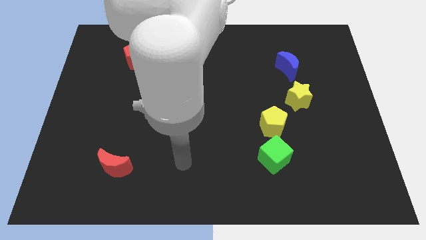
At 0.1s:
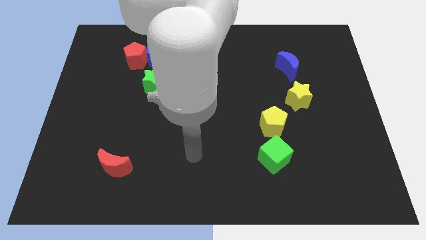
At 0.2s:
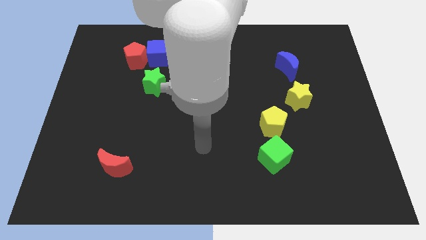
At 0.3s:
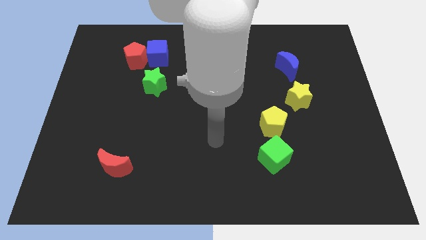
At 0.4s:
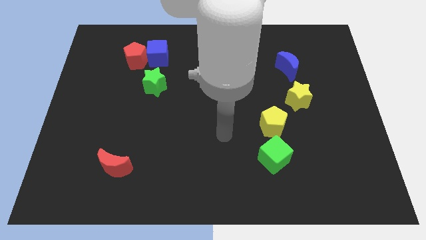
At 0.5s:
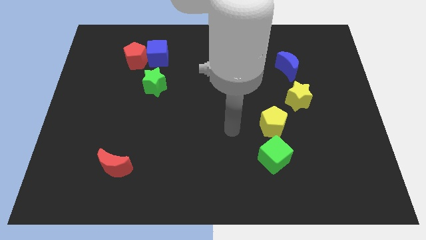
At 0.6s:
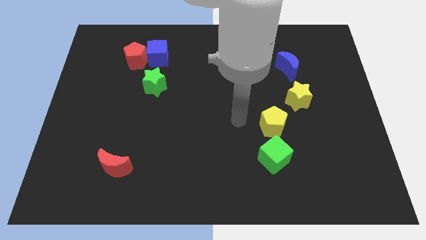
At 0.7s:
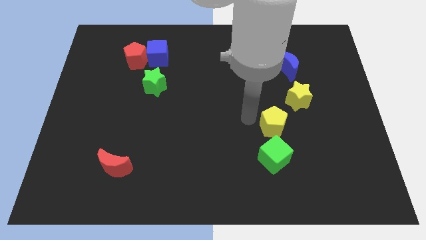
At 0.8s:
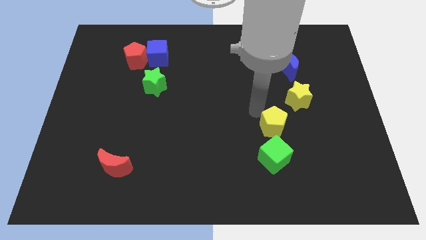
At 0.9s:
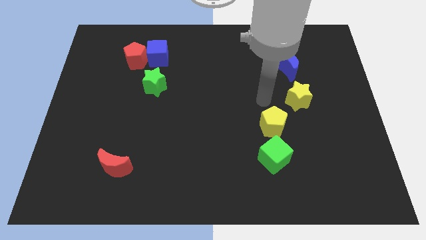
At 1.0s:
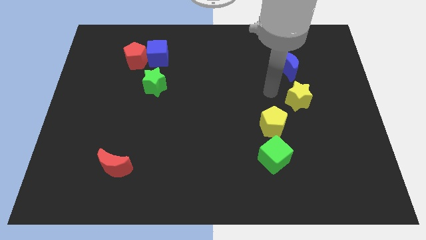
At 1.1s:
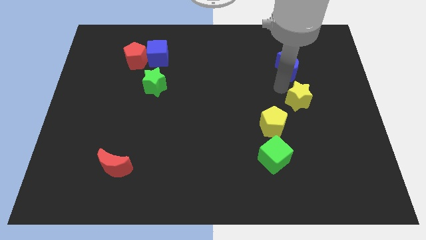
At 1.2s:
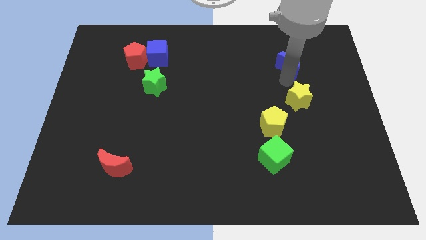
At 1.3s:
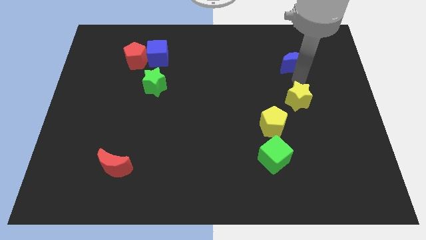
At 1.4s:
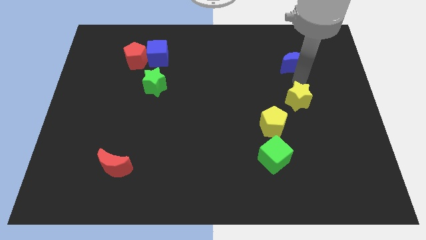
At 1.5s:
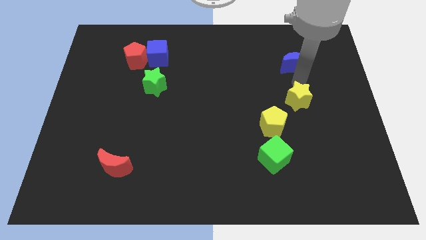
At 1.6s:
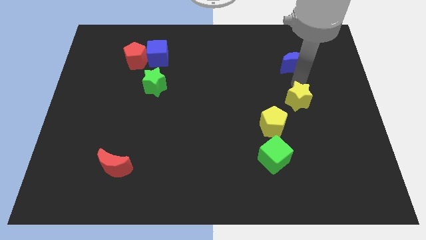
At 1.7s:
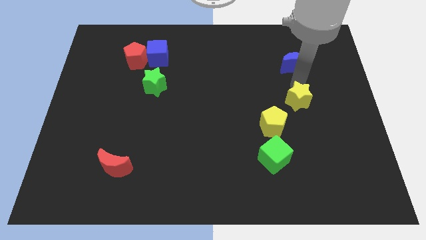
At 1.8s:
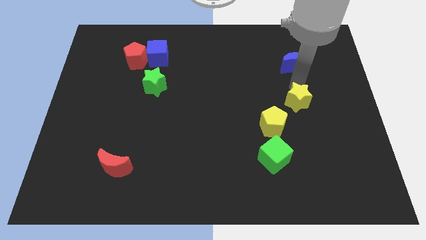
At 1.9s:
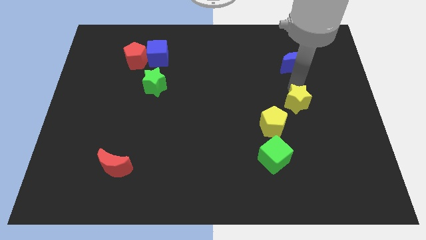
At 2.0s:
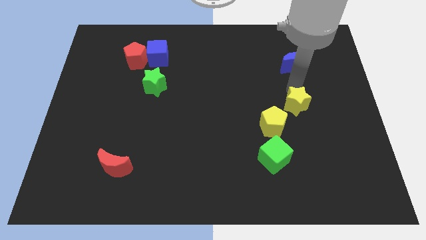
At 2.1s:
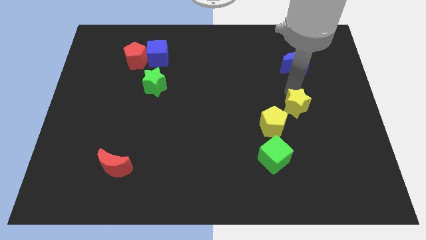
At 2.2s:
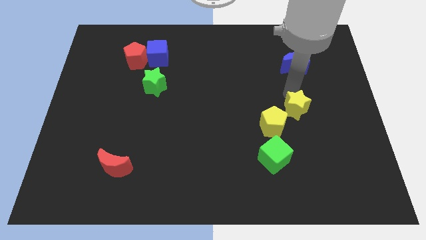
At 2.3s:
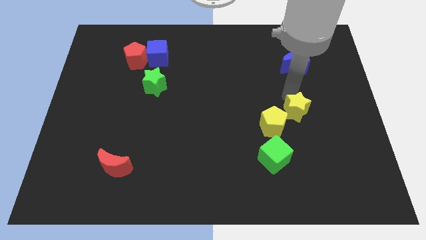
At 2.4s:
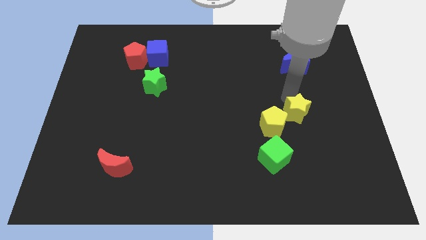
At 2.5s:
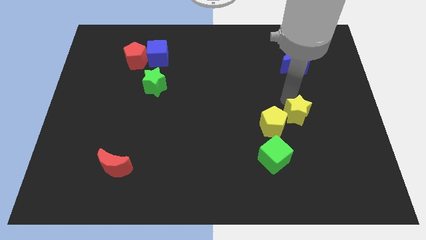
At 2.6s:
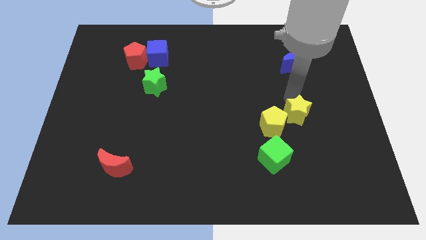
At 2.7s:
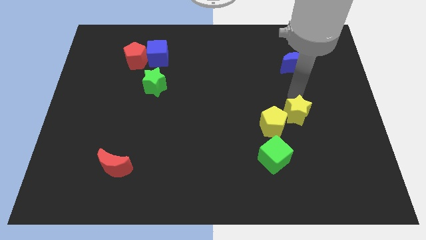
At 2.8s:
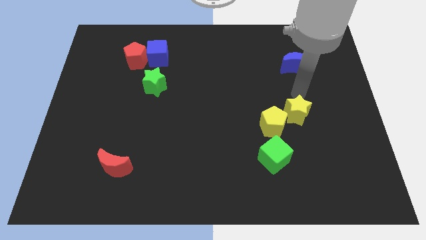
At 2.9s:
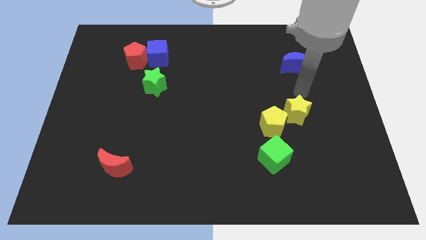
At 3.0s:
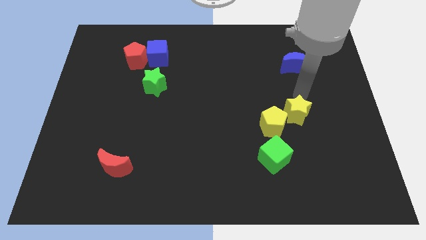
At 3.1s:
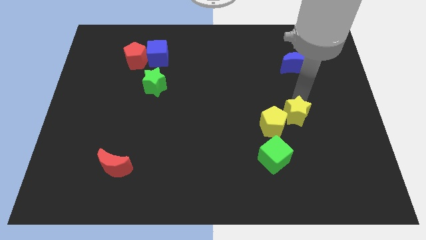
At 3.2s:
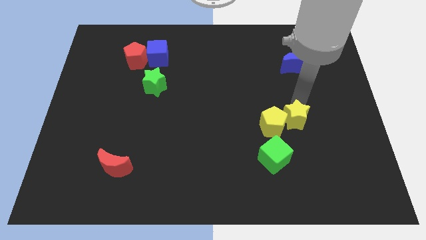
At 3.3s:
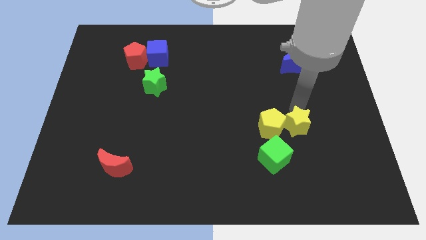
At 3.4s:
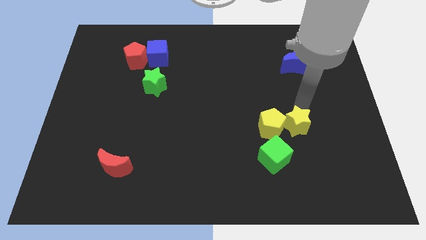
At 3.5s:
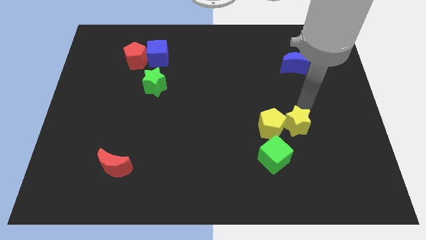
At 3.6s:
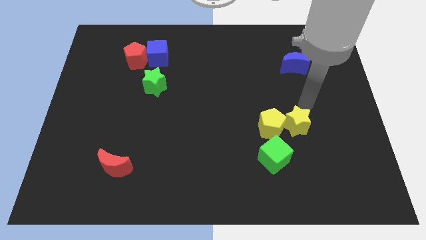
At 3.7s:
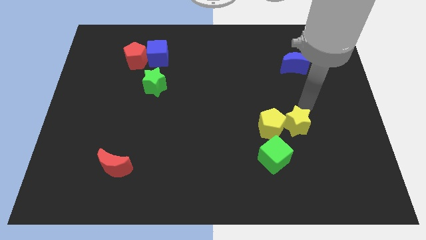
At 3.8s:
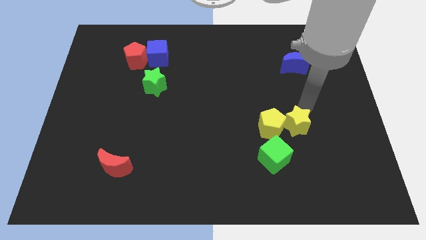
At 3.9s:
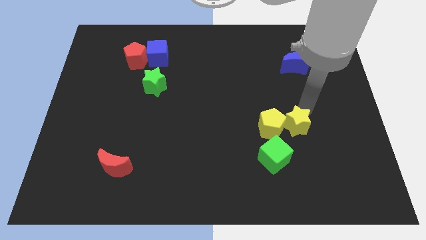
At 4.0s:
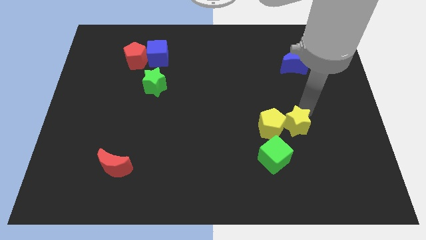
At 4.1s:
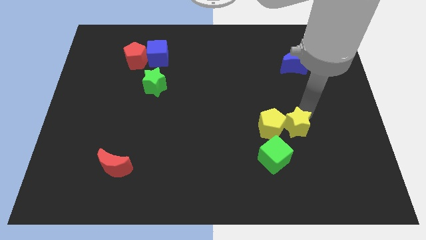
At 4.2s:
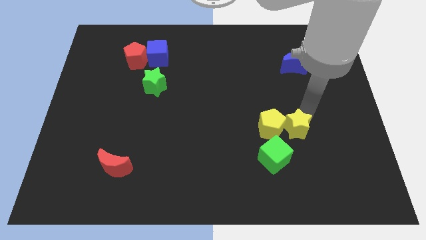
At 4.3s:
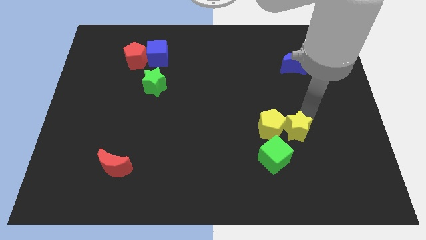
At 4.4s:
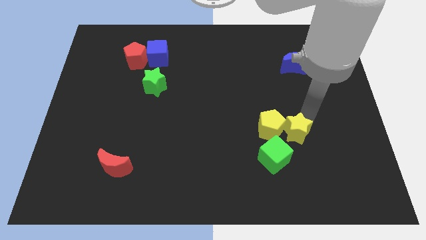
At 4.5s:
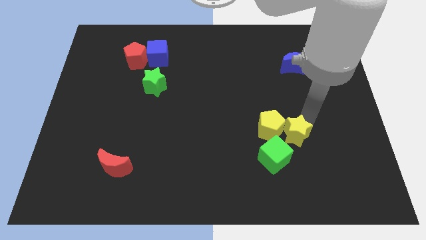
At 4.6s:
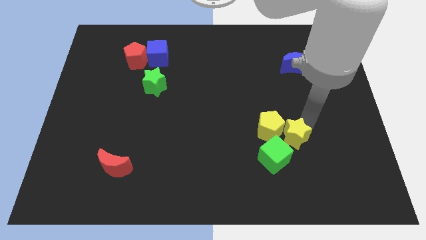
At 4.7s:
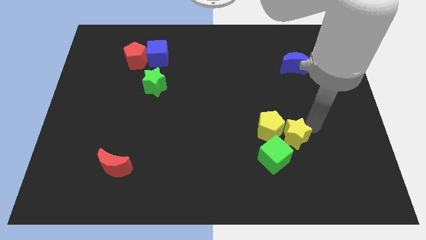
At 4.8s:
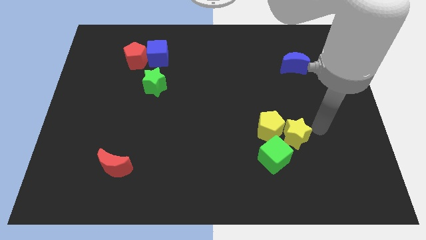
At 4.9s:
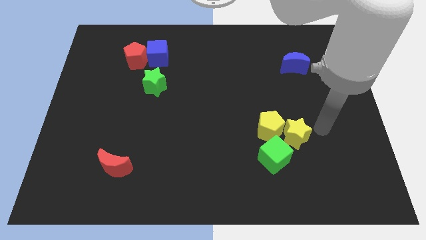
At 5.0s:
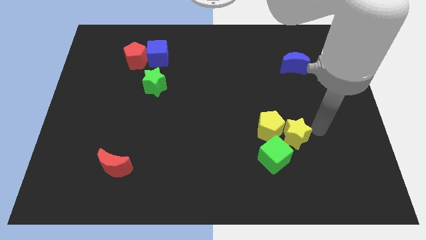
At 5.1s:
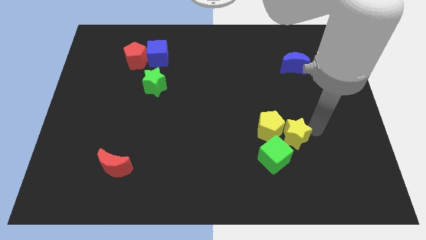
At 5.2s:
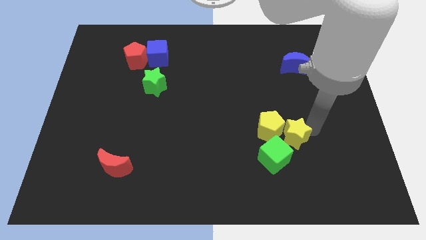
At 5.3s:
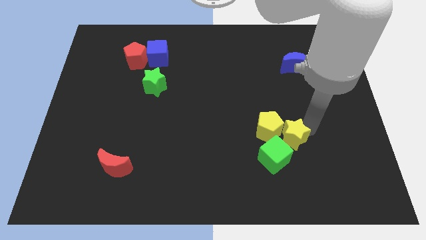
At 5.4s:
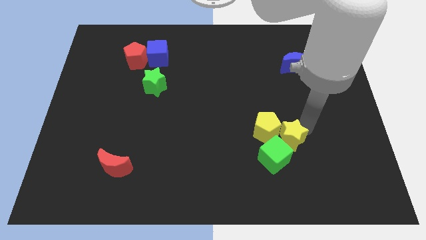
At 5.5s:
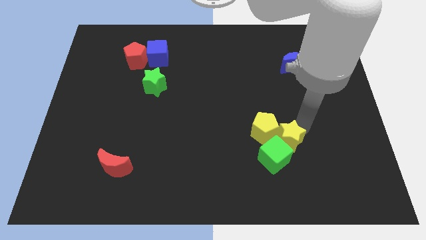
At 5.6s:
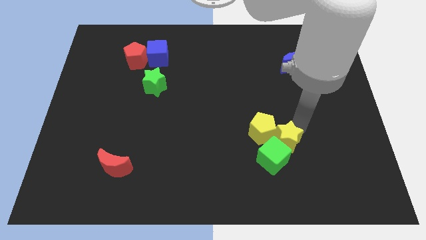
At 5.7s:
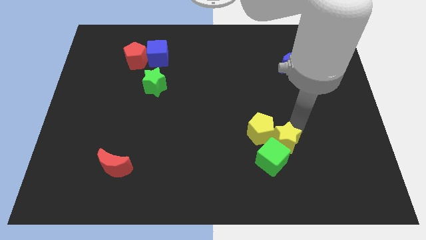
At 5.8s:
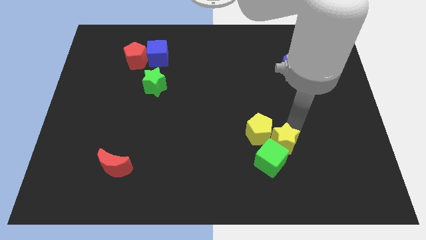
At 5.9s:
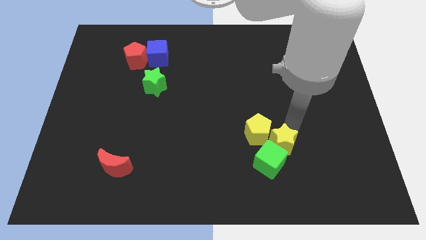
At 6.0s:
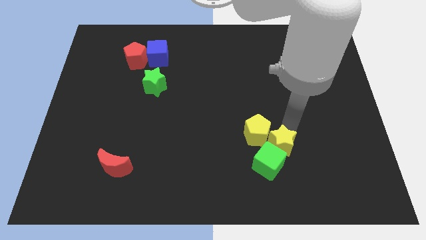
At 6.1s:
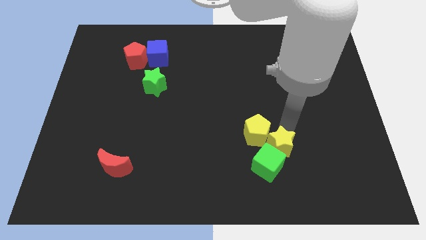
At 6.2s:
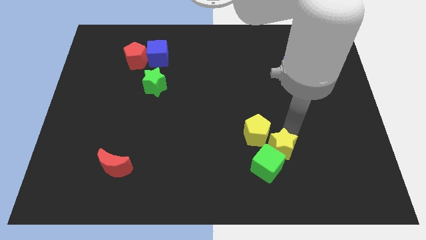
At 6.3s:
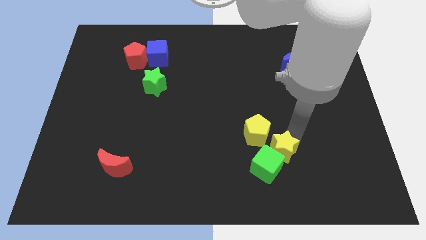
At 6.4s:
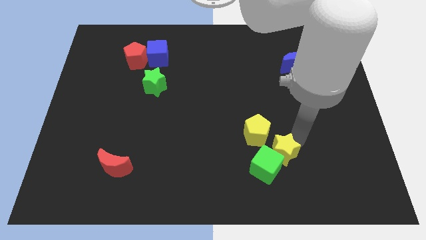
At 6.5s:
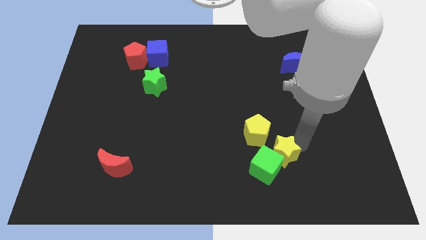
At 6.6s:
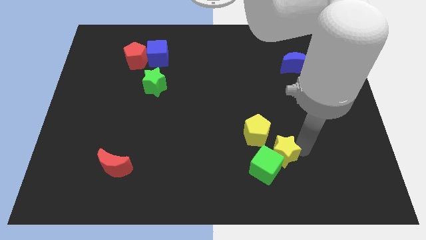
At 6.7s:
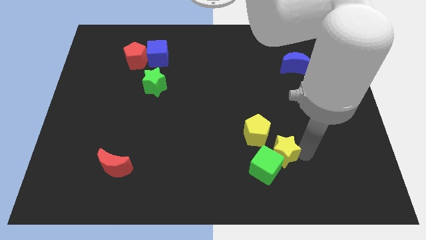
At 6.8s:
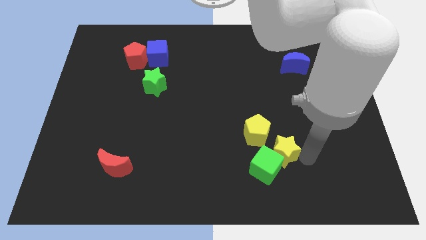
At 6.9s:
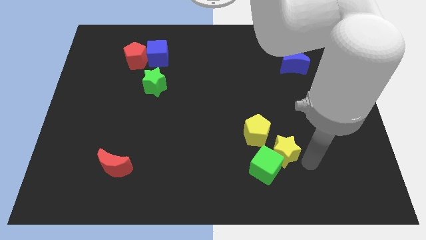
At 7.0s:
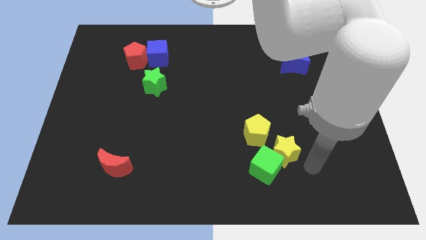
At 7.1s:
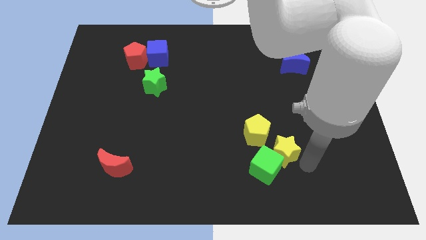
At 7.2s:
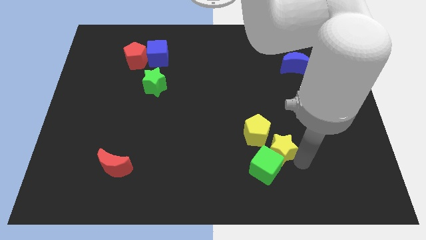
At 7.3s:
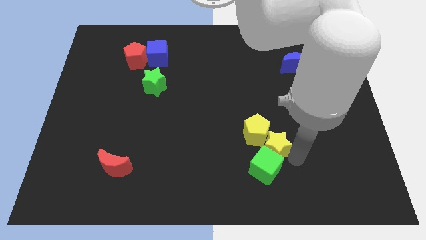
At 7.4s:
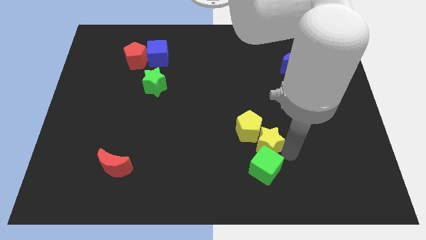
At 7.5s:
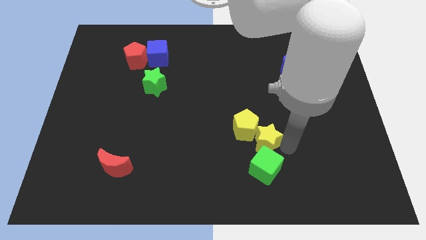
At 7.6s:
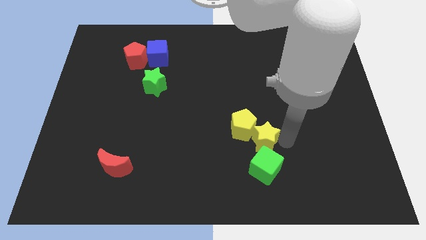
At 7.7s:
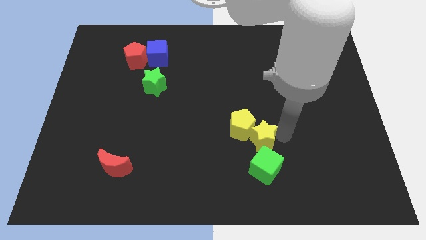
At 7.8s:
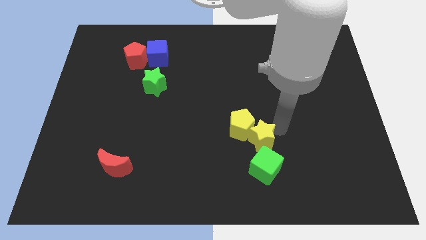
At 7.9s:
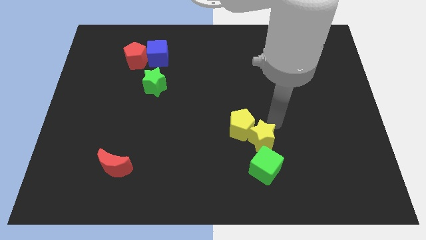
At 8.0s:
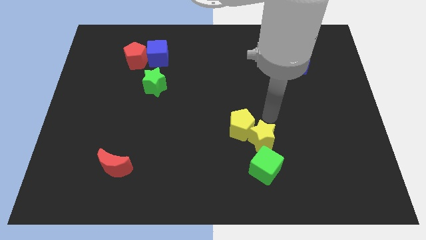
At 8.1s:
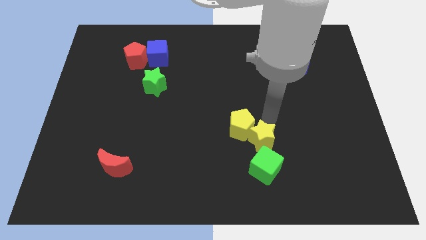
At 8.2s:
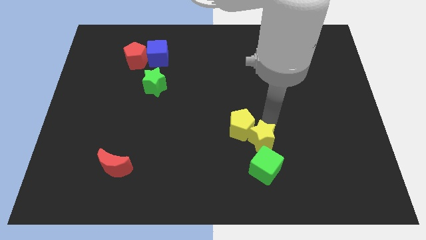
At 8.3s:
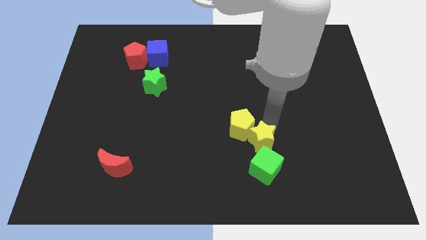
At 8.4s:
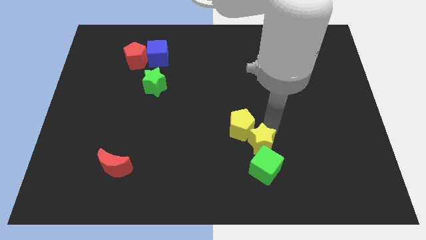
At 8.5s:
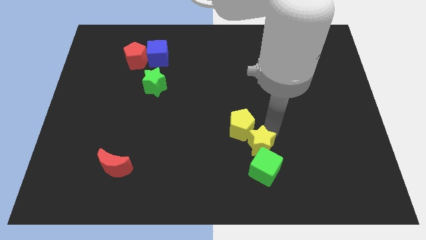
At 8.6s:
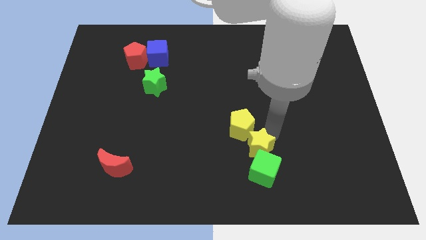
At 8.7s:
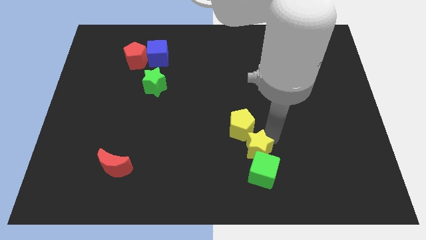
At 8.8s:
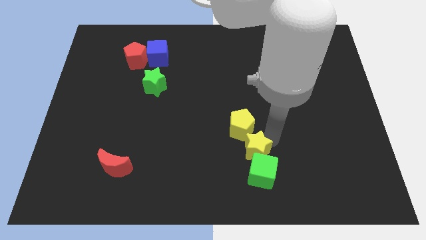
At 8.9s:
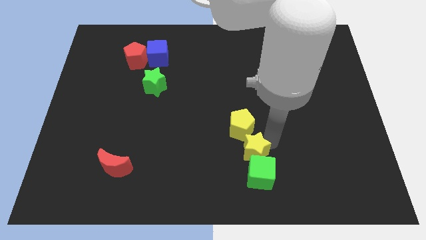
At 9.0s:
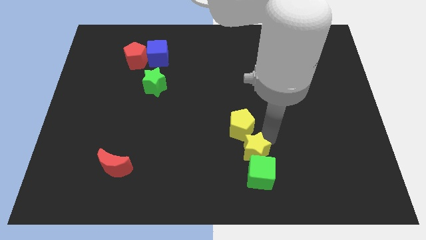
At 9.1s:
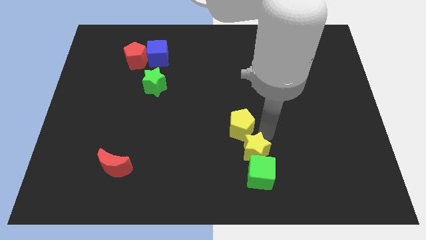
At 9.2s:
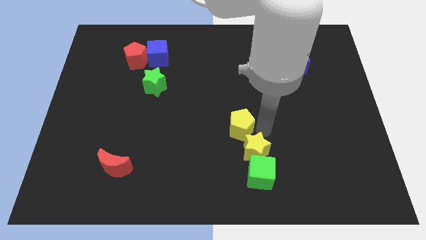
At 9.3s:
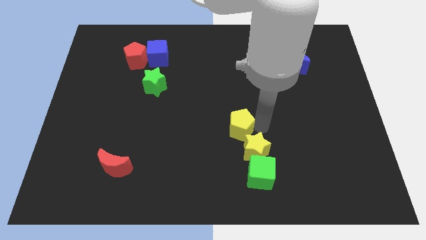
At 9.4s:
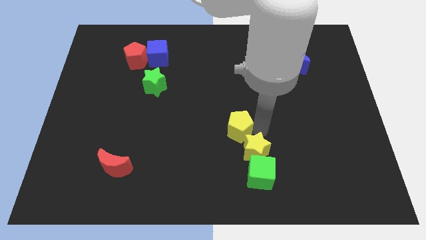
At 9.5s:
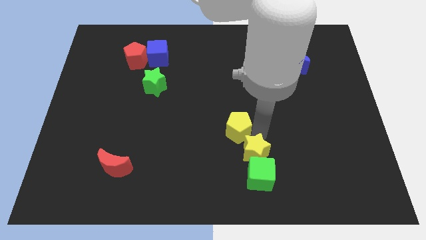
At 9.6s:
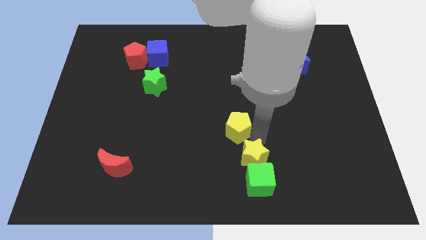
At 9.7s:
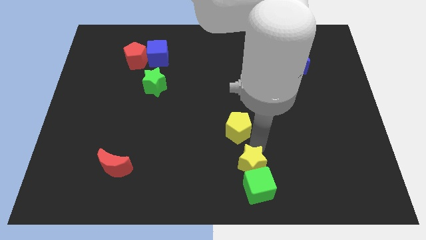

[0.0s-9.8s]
push the yellow star to the bottom side
